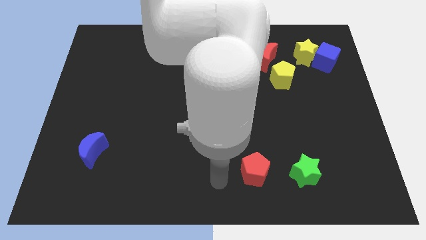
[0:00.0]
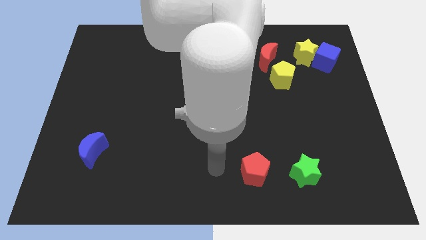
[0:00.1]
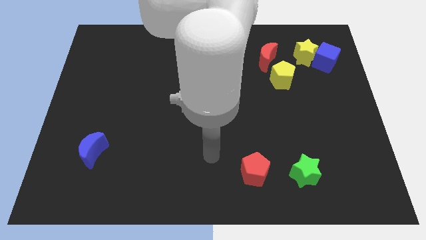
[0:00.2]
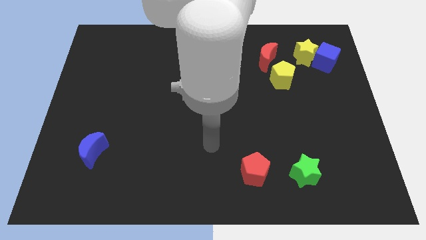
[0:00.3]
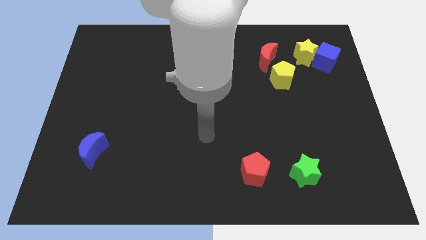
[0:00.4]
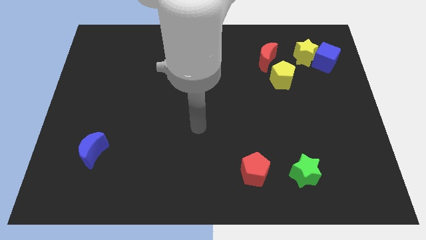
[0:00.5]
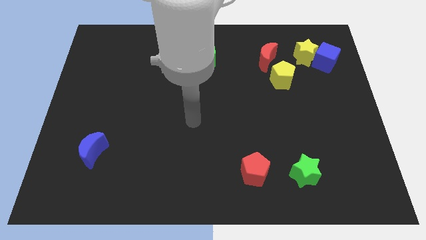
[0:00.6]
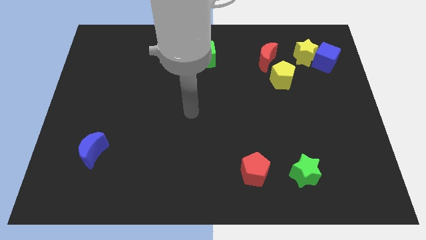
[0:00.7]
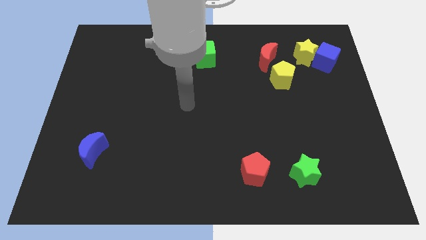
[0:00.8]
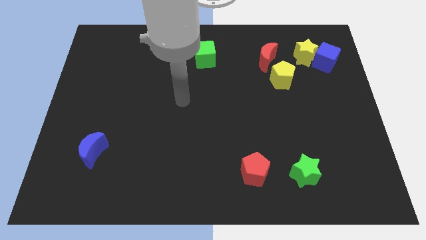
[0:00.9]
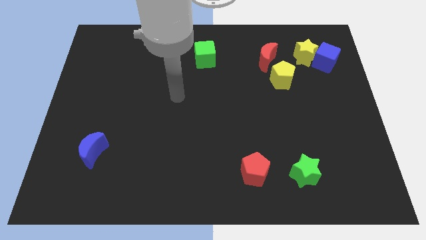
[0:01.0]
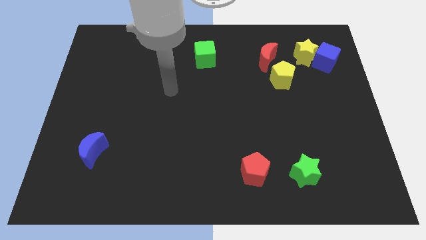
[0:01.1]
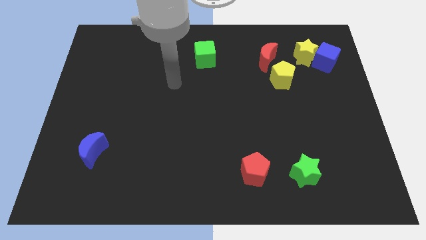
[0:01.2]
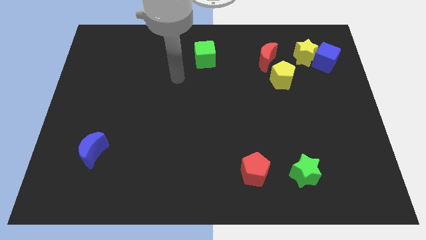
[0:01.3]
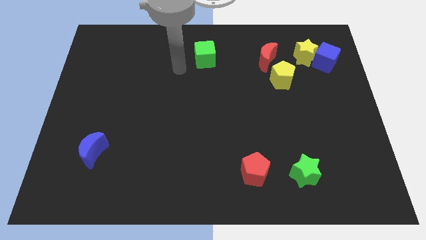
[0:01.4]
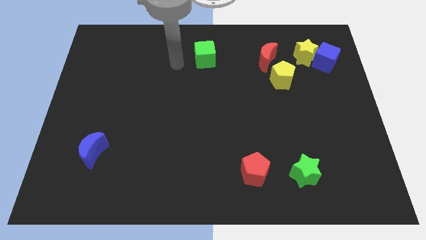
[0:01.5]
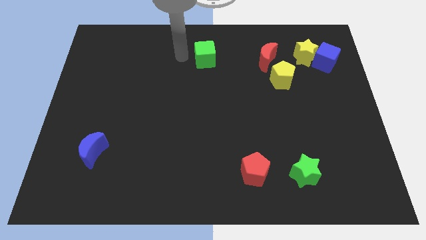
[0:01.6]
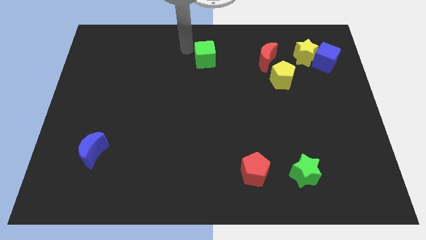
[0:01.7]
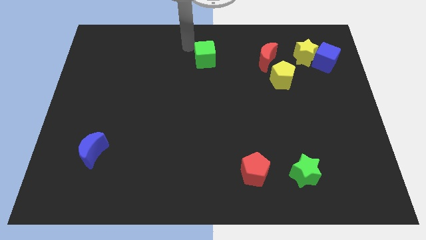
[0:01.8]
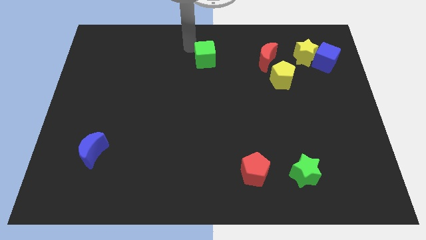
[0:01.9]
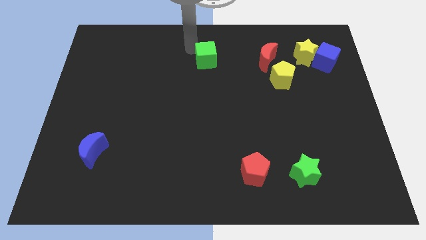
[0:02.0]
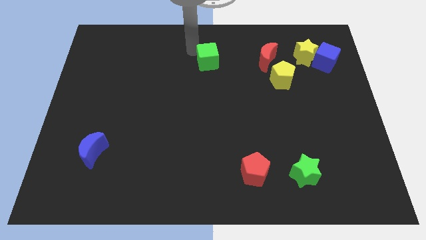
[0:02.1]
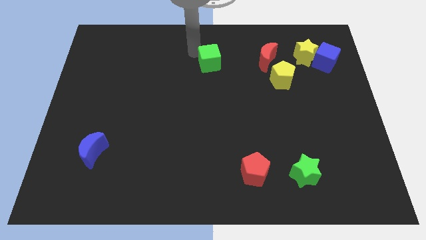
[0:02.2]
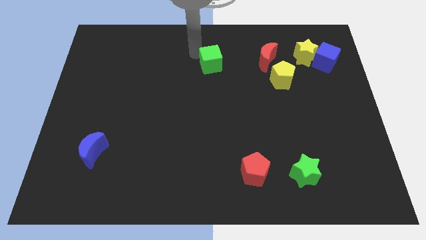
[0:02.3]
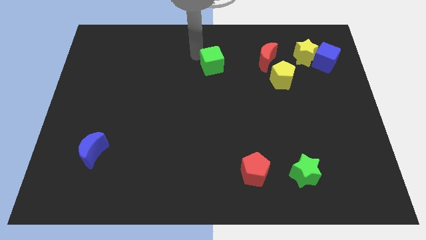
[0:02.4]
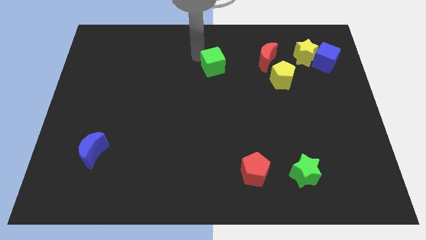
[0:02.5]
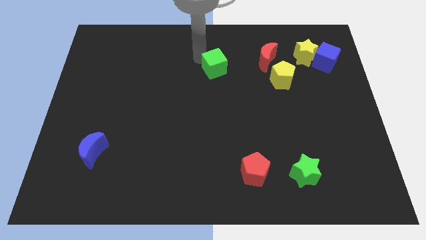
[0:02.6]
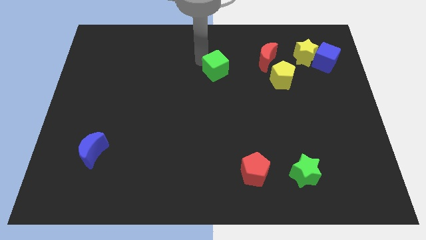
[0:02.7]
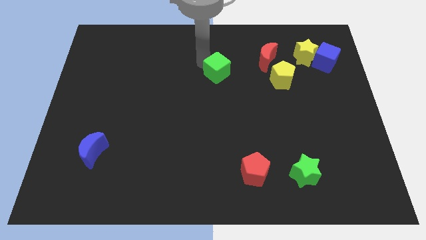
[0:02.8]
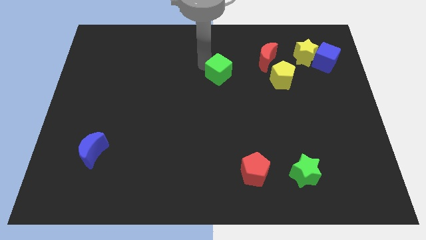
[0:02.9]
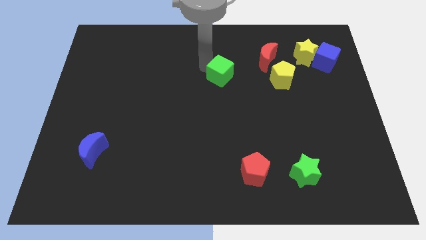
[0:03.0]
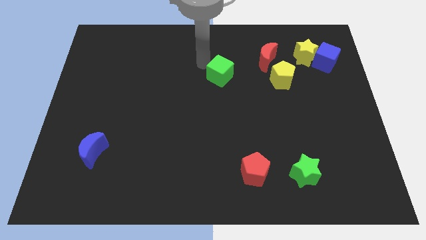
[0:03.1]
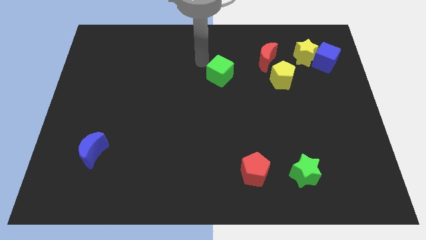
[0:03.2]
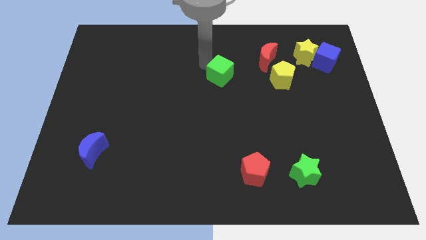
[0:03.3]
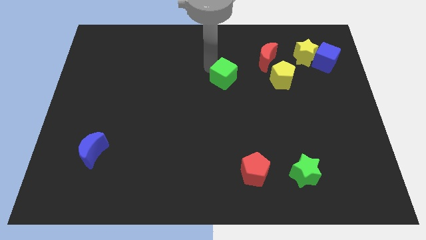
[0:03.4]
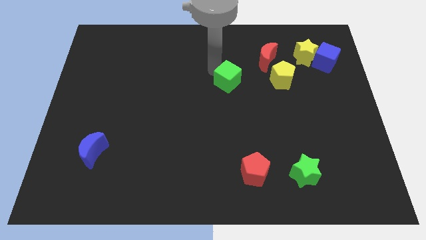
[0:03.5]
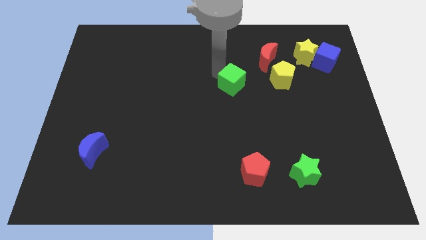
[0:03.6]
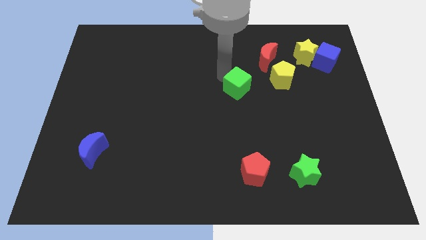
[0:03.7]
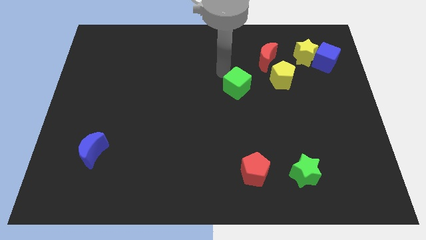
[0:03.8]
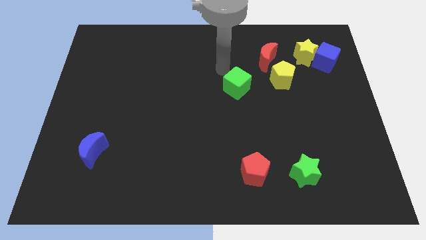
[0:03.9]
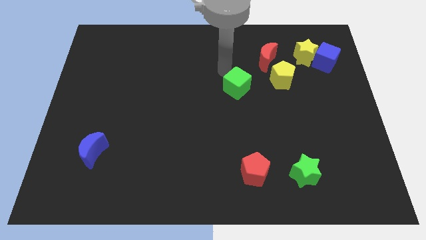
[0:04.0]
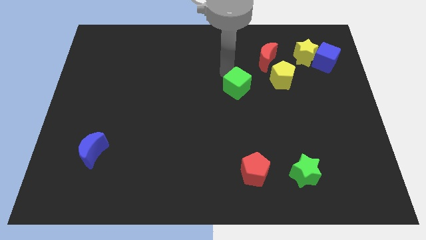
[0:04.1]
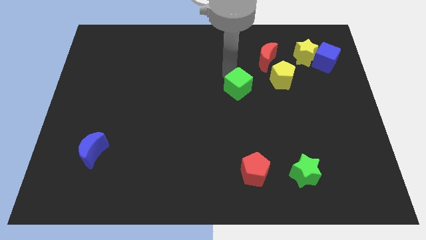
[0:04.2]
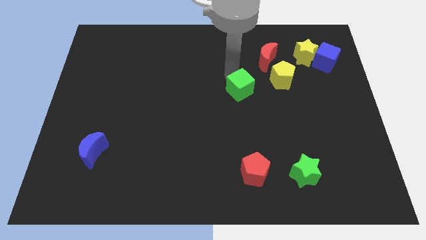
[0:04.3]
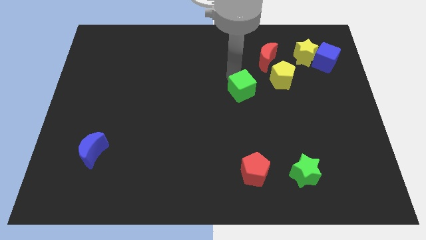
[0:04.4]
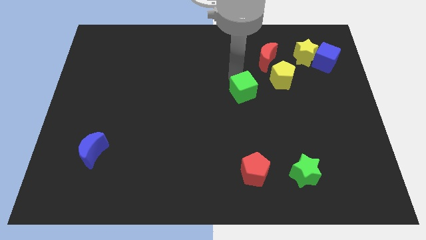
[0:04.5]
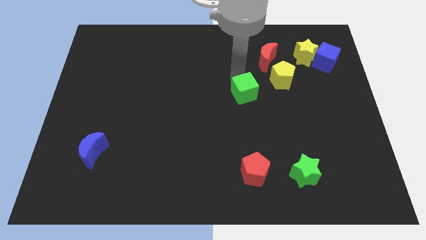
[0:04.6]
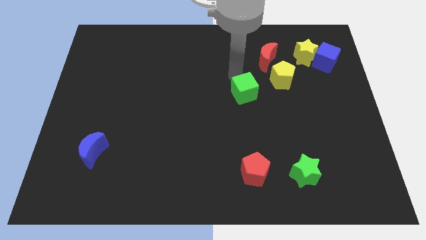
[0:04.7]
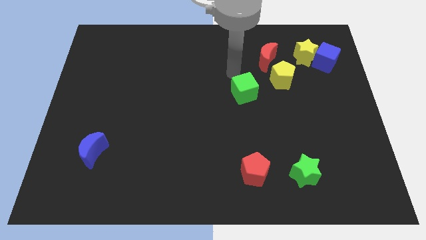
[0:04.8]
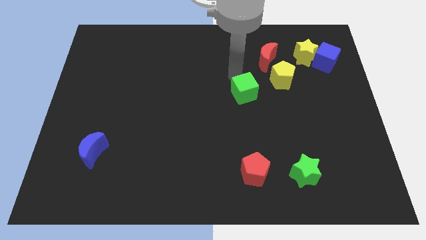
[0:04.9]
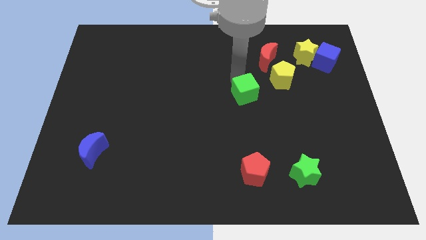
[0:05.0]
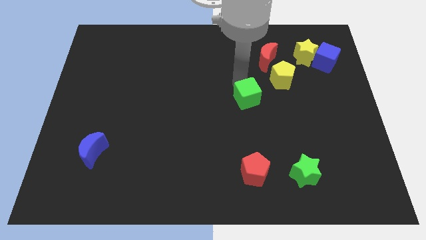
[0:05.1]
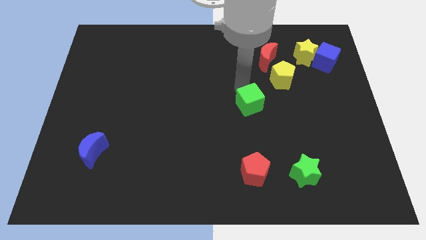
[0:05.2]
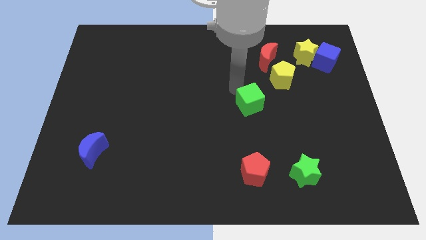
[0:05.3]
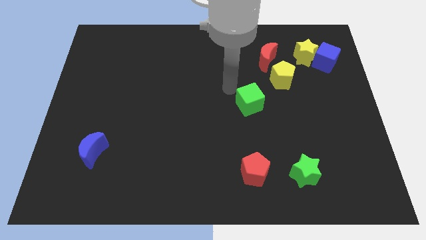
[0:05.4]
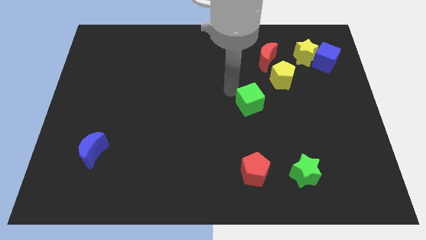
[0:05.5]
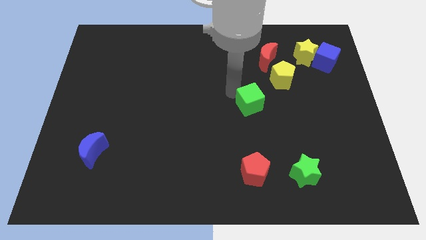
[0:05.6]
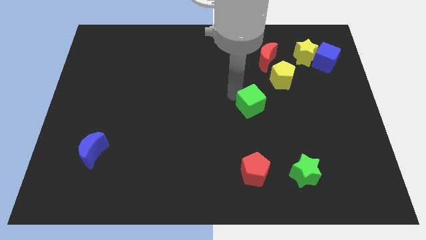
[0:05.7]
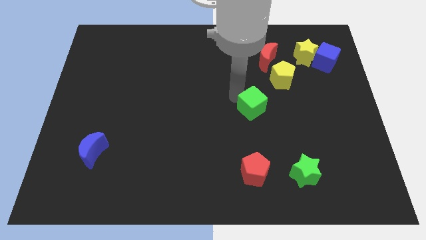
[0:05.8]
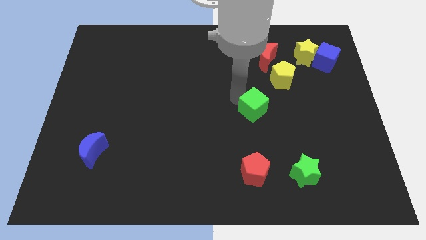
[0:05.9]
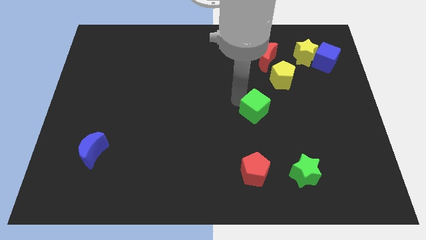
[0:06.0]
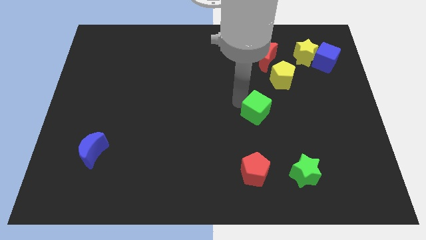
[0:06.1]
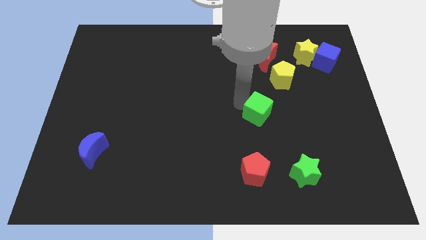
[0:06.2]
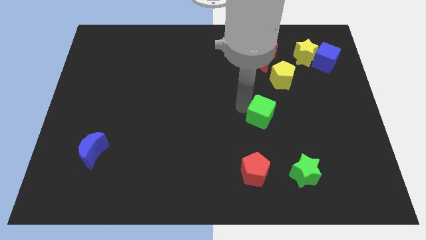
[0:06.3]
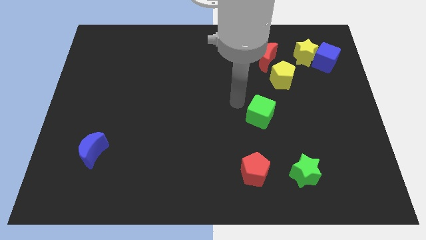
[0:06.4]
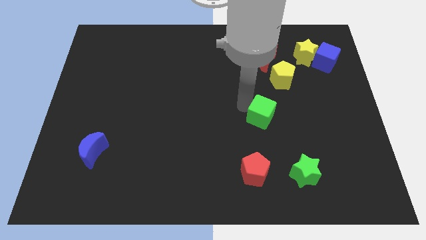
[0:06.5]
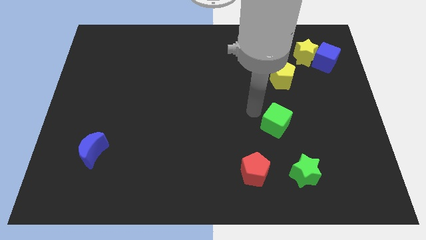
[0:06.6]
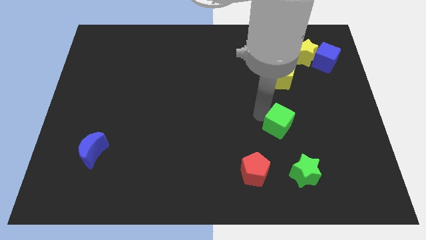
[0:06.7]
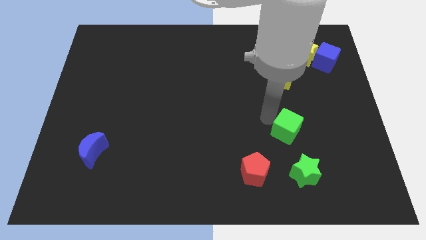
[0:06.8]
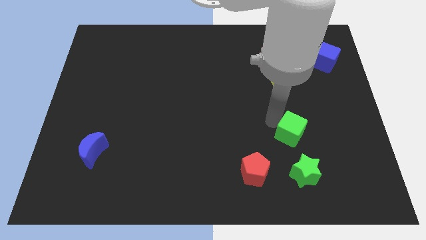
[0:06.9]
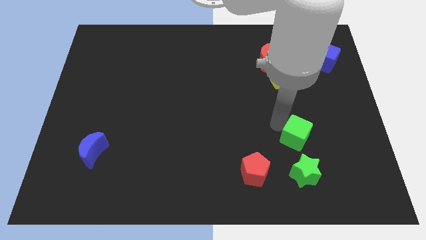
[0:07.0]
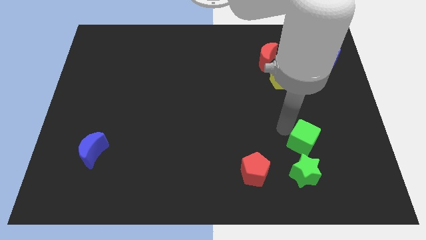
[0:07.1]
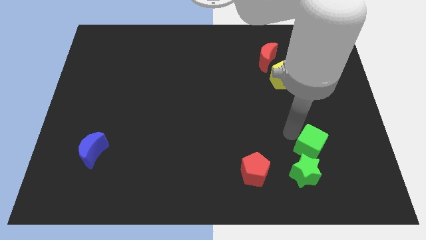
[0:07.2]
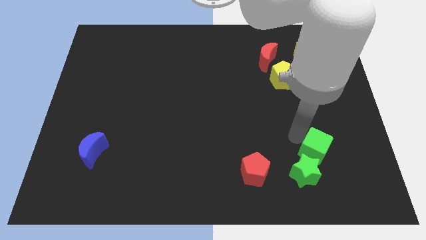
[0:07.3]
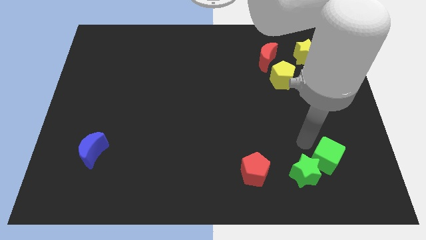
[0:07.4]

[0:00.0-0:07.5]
push the green cube to the right of the green star

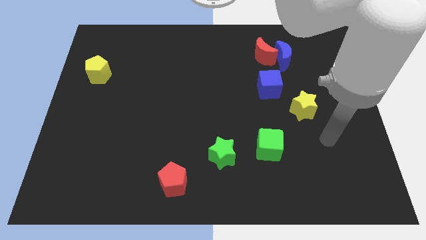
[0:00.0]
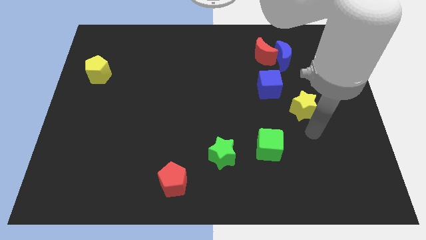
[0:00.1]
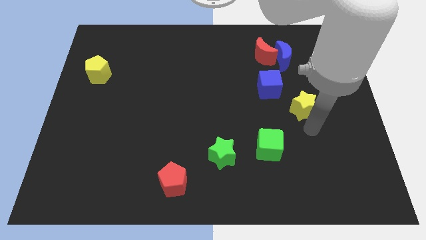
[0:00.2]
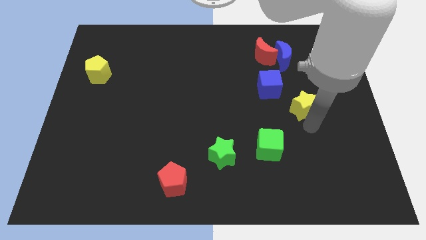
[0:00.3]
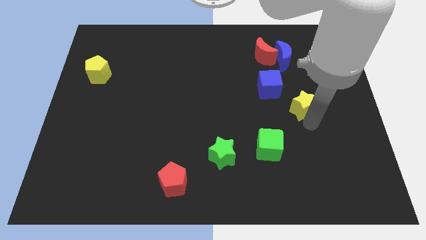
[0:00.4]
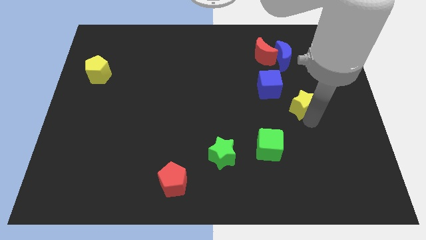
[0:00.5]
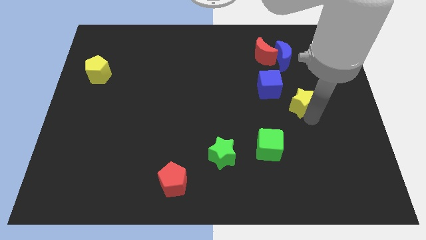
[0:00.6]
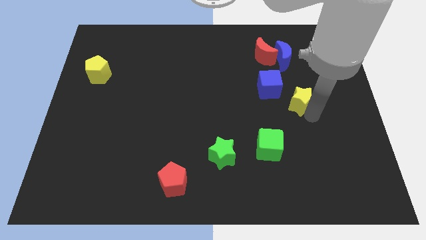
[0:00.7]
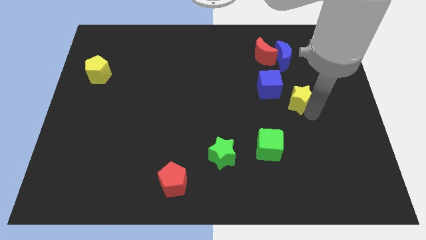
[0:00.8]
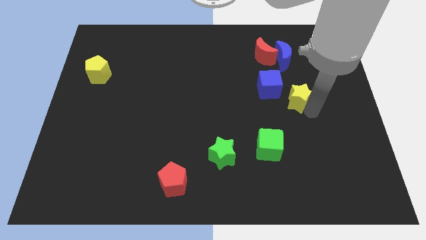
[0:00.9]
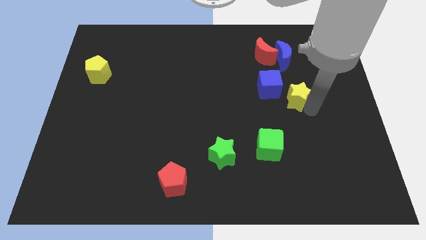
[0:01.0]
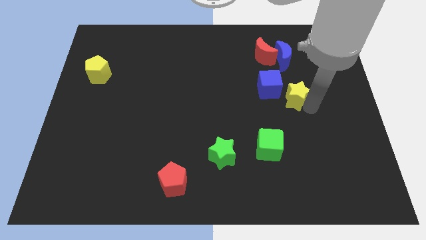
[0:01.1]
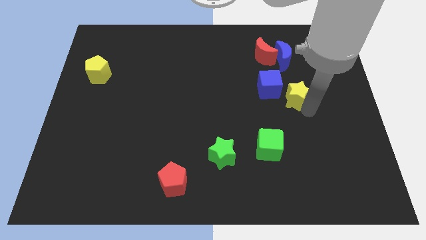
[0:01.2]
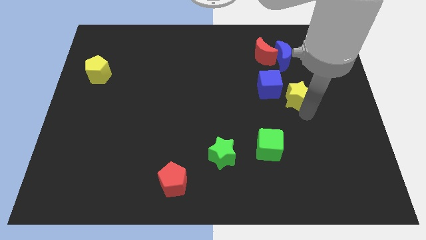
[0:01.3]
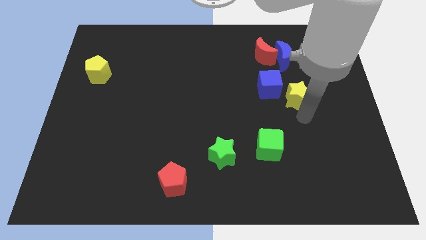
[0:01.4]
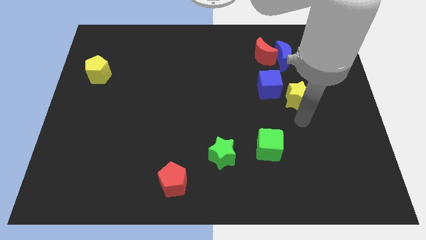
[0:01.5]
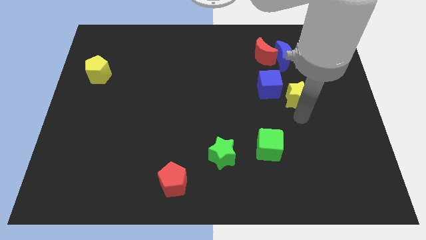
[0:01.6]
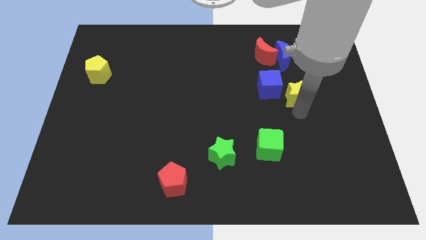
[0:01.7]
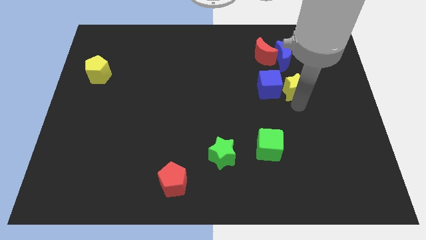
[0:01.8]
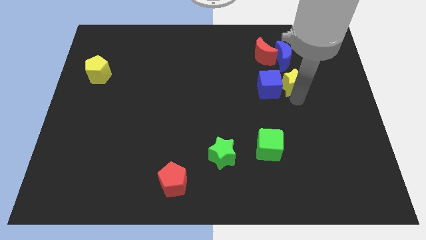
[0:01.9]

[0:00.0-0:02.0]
slide the yellow star to the top right of the blue cube
